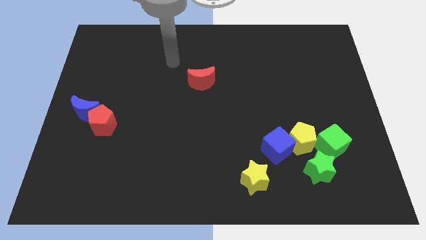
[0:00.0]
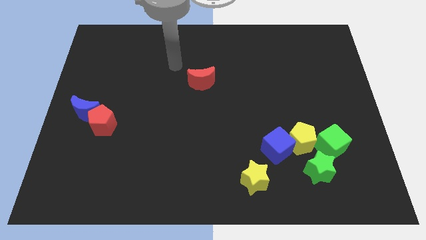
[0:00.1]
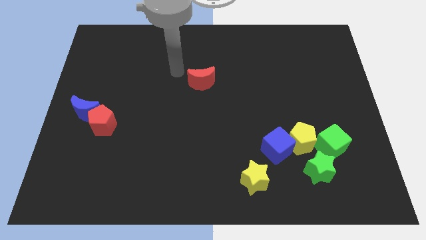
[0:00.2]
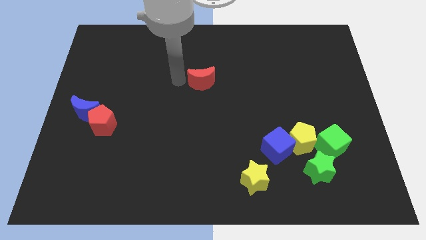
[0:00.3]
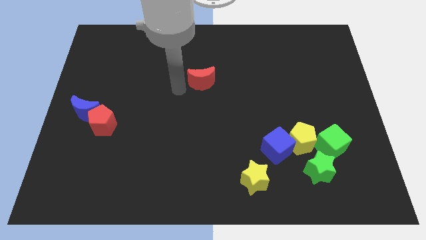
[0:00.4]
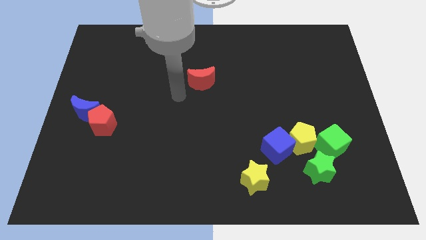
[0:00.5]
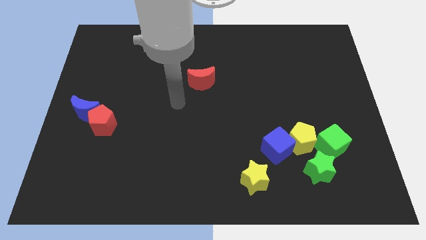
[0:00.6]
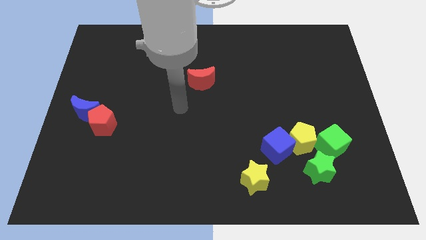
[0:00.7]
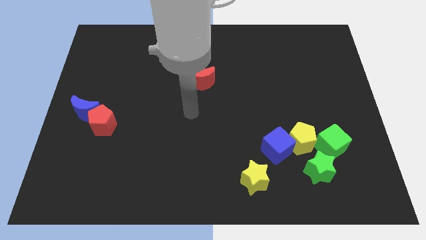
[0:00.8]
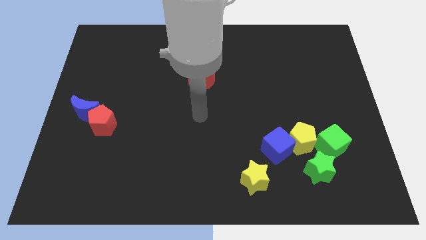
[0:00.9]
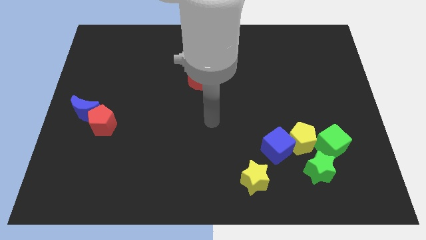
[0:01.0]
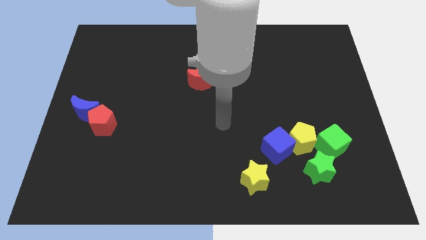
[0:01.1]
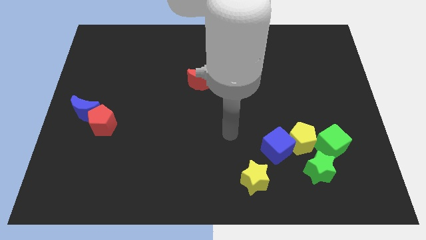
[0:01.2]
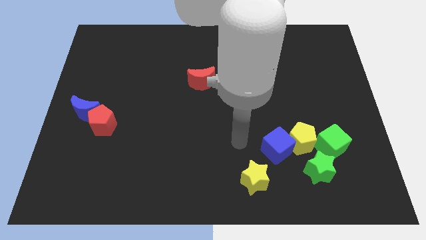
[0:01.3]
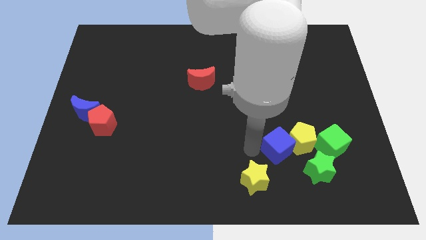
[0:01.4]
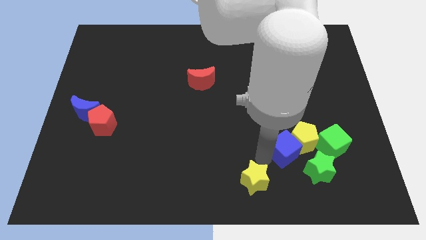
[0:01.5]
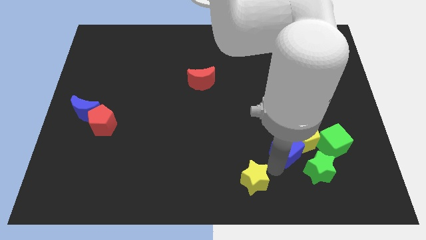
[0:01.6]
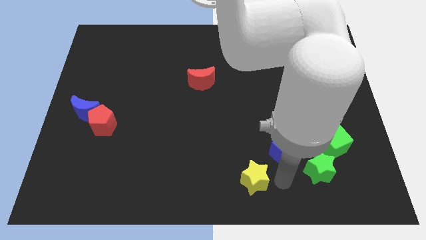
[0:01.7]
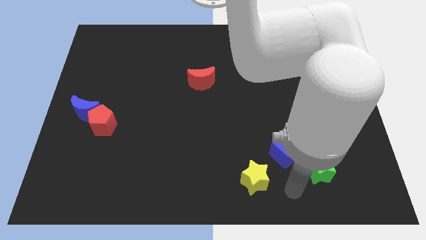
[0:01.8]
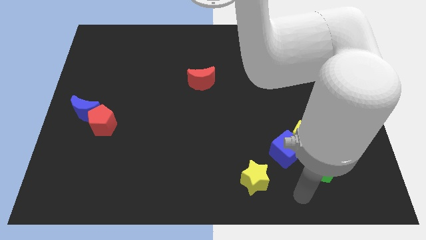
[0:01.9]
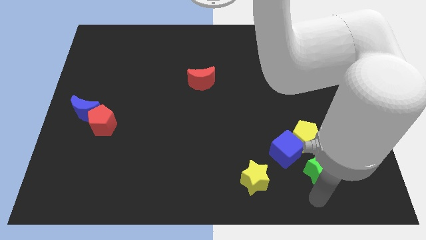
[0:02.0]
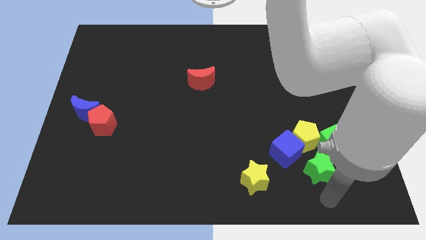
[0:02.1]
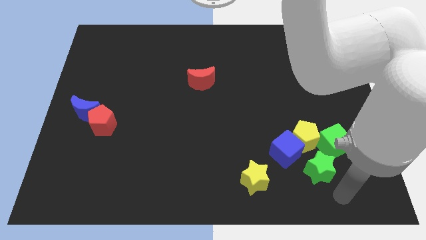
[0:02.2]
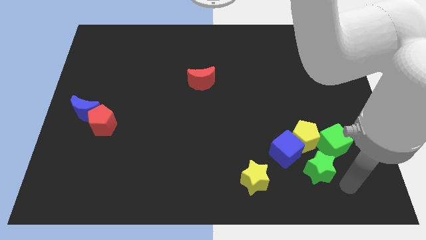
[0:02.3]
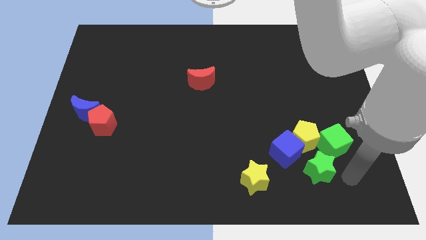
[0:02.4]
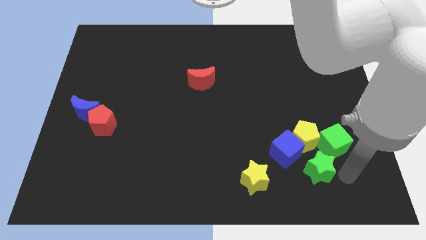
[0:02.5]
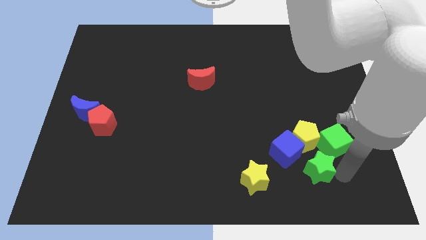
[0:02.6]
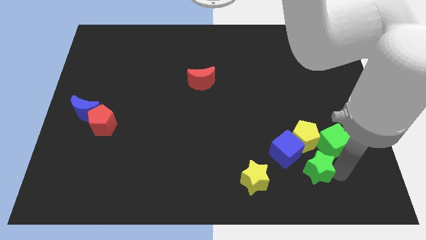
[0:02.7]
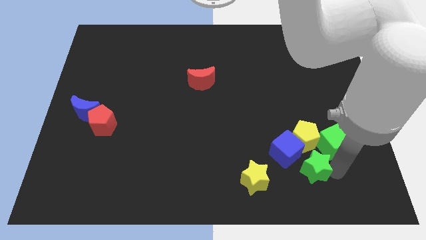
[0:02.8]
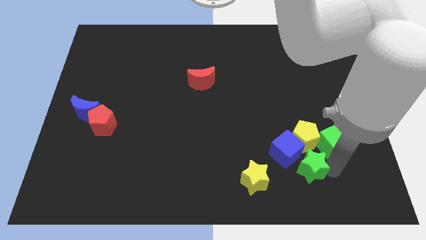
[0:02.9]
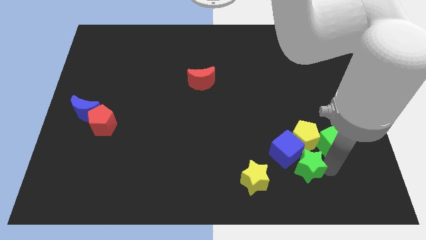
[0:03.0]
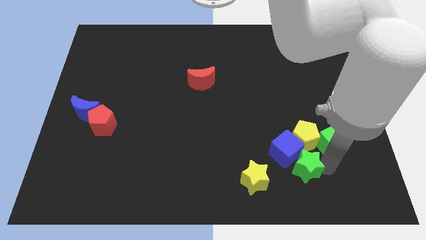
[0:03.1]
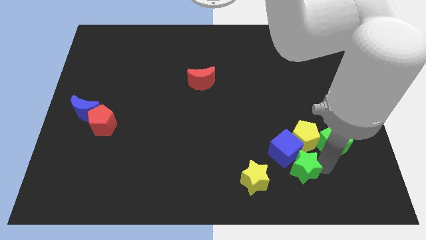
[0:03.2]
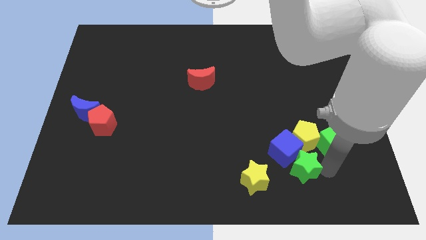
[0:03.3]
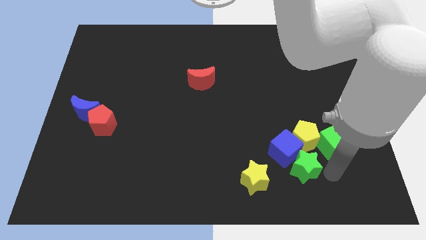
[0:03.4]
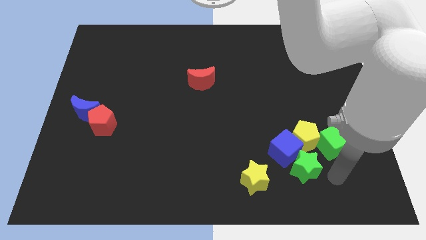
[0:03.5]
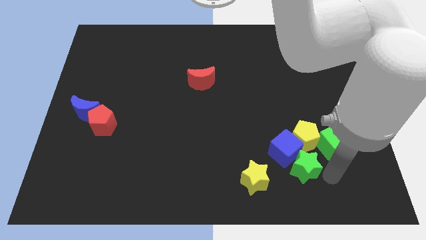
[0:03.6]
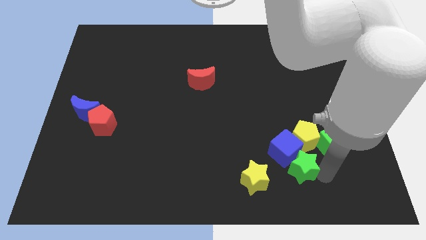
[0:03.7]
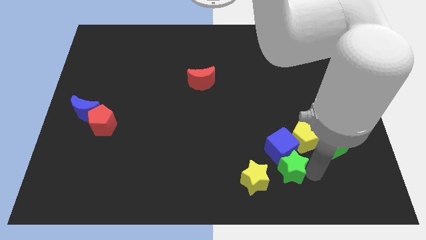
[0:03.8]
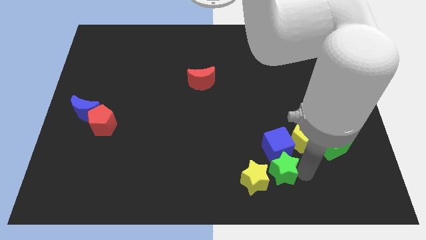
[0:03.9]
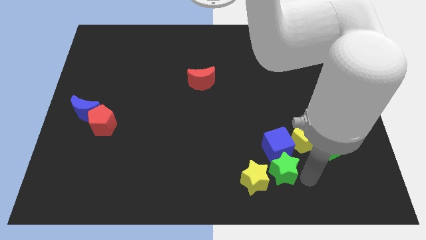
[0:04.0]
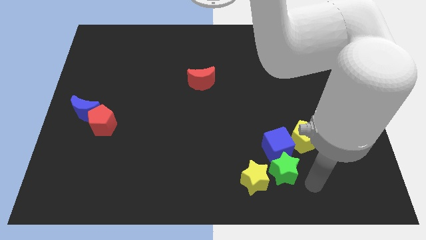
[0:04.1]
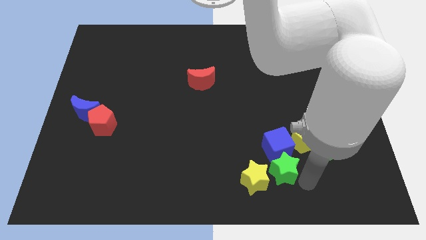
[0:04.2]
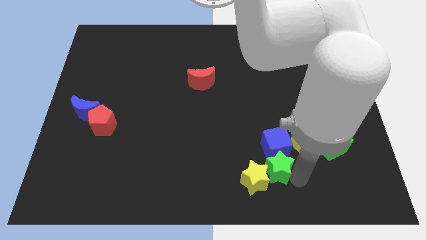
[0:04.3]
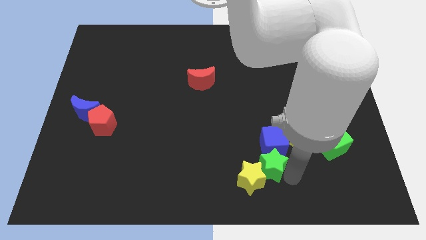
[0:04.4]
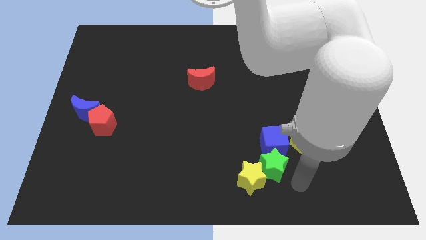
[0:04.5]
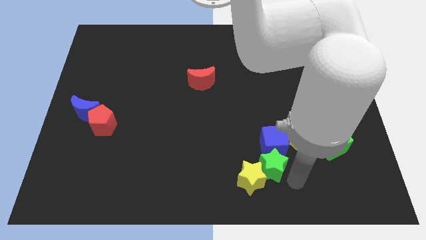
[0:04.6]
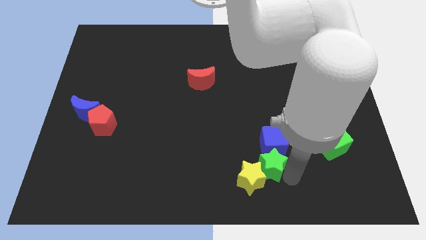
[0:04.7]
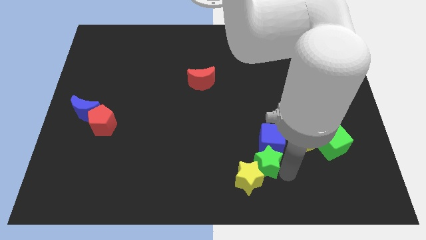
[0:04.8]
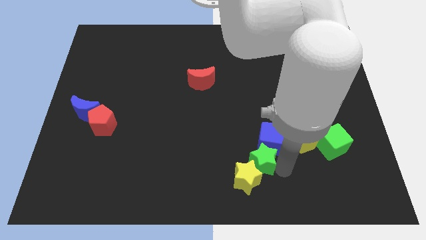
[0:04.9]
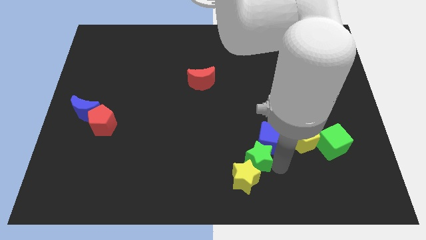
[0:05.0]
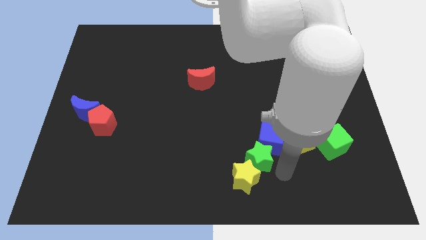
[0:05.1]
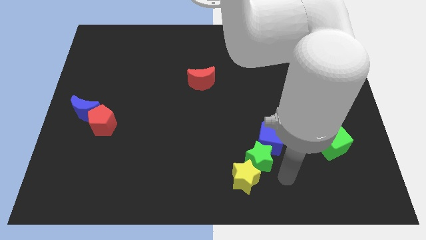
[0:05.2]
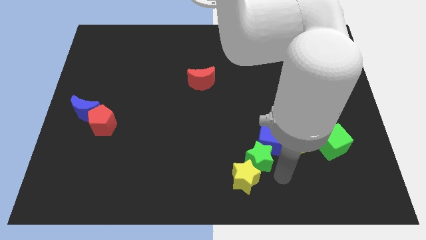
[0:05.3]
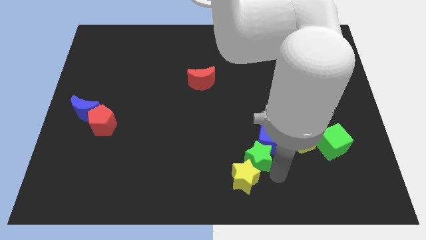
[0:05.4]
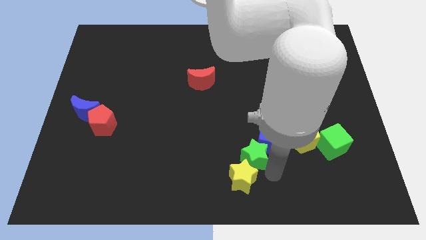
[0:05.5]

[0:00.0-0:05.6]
move the green star left of the blue cube

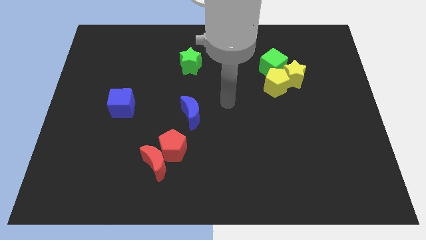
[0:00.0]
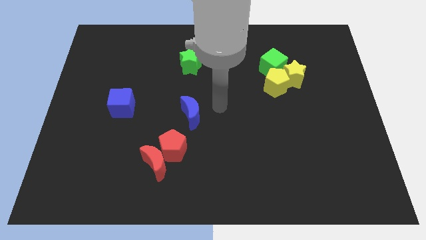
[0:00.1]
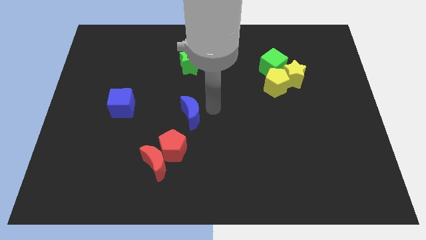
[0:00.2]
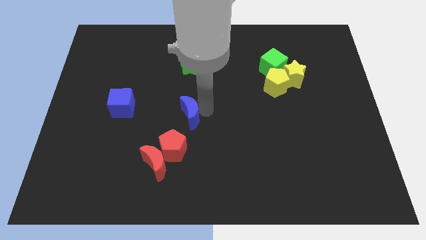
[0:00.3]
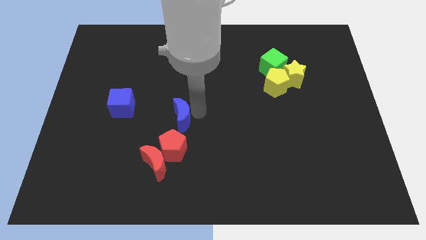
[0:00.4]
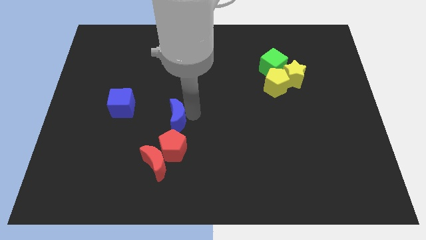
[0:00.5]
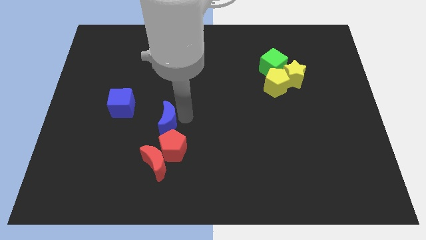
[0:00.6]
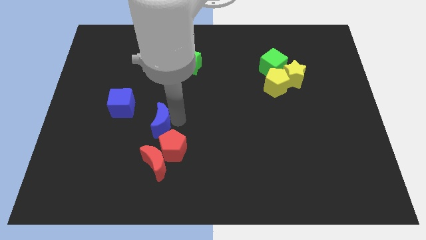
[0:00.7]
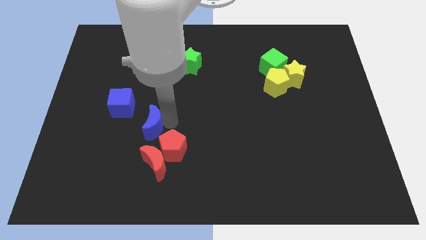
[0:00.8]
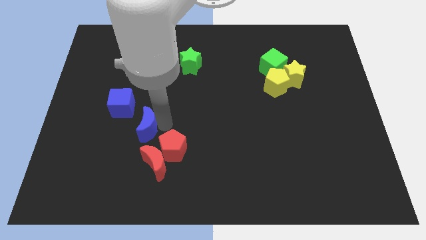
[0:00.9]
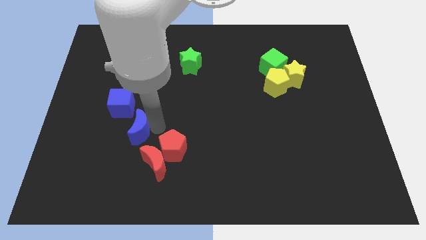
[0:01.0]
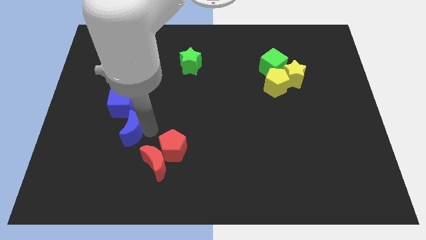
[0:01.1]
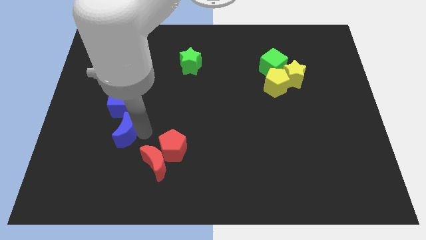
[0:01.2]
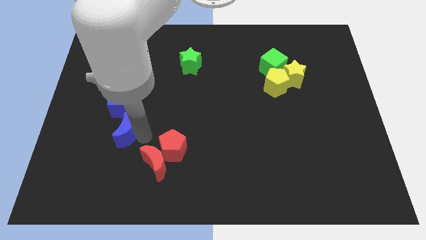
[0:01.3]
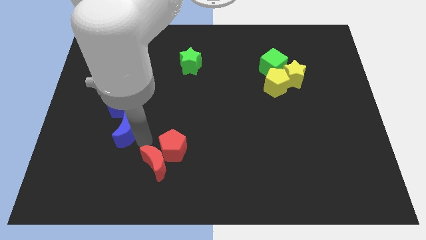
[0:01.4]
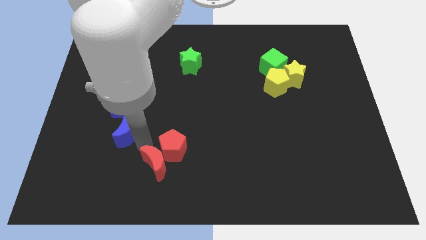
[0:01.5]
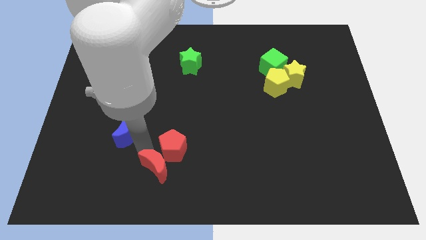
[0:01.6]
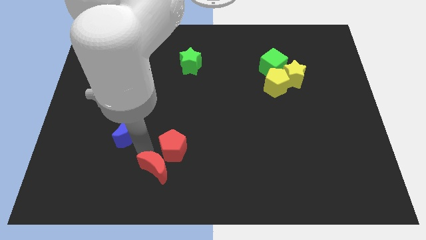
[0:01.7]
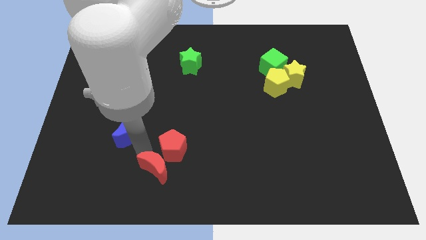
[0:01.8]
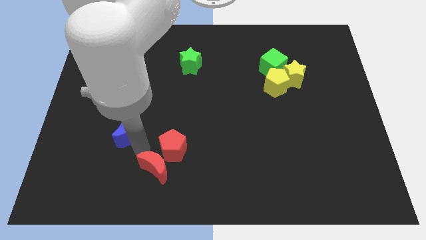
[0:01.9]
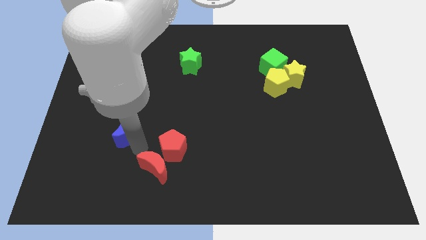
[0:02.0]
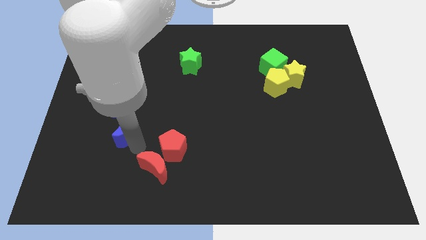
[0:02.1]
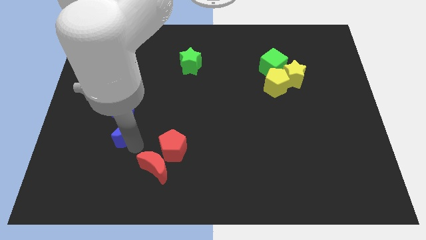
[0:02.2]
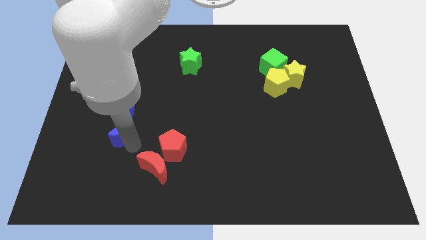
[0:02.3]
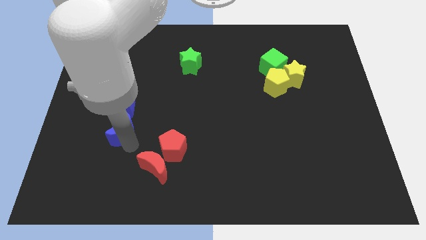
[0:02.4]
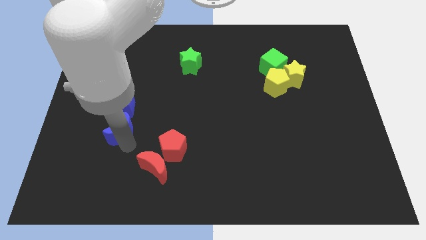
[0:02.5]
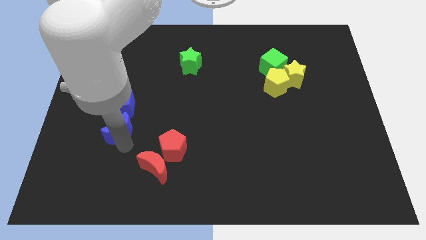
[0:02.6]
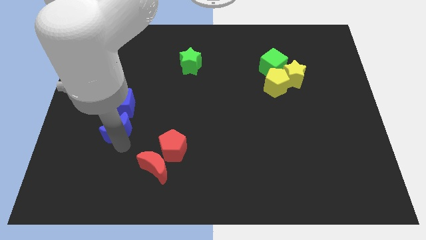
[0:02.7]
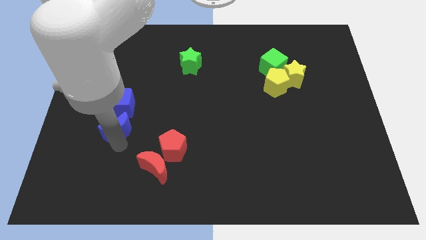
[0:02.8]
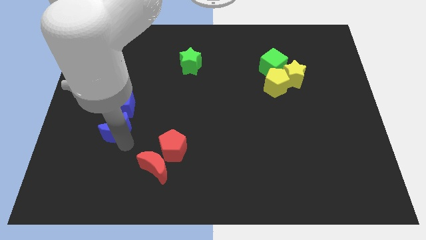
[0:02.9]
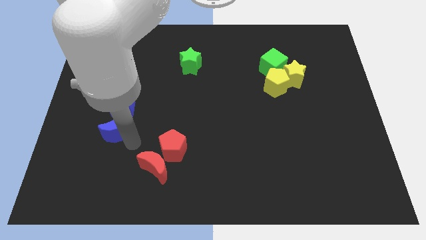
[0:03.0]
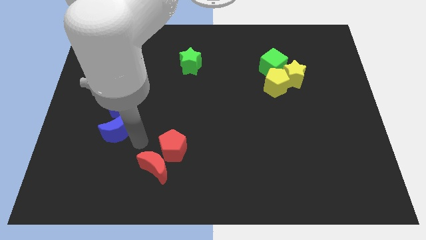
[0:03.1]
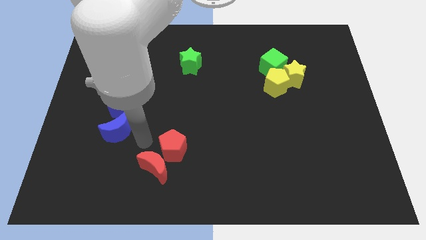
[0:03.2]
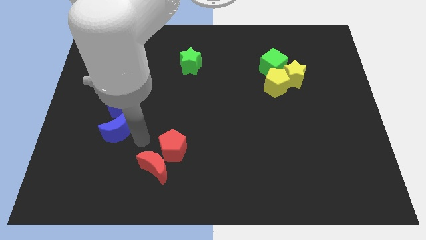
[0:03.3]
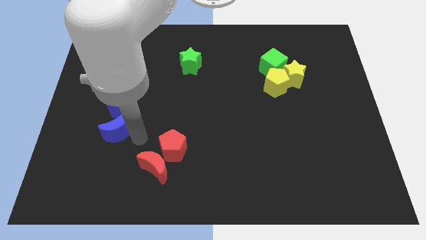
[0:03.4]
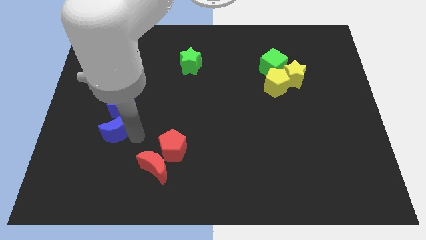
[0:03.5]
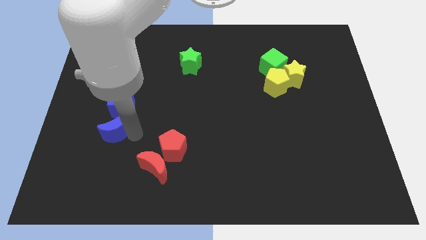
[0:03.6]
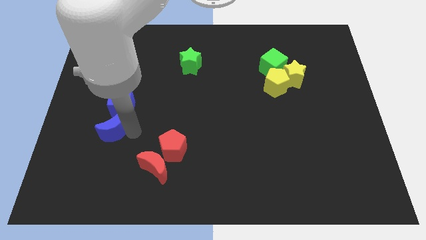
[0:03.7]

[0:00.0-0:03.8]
put the blue moon to the bottom left side of the blue cube
